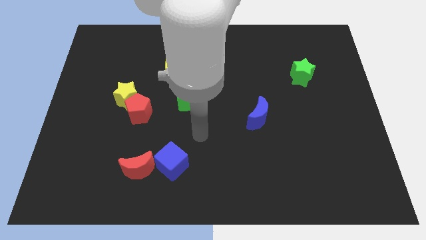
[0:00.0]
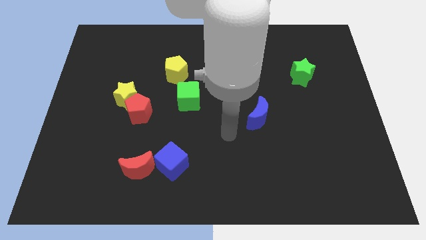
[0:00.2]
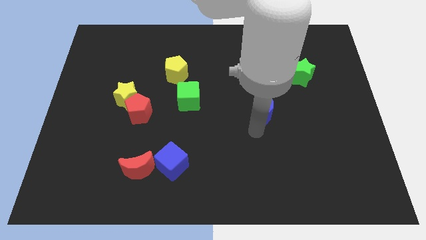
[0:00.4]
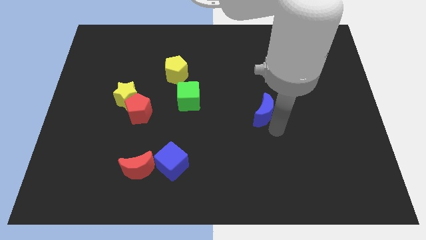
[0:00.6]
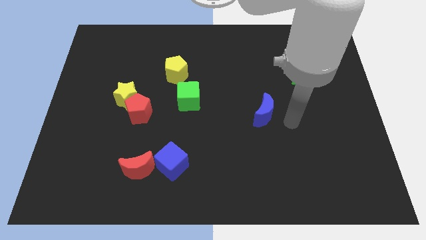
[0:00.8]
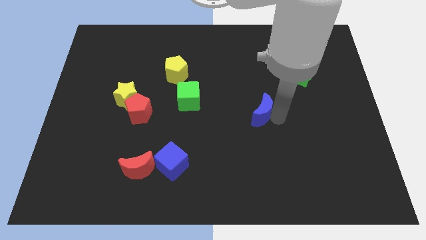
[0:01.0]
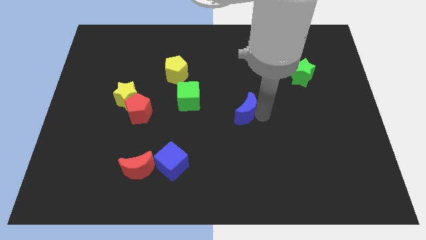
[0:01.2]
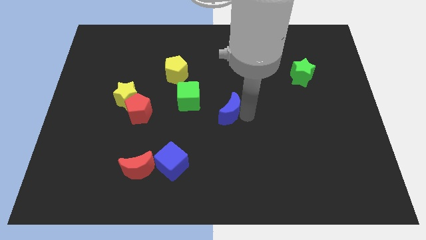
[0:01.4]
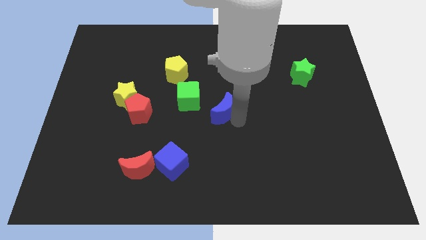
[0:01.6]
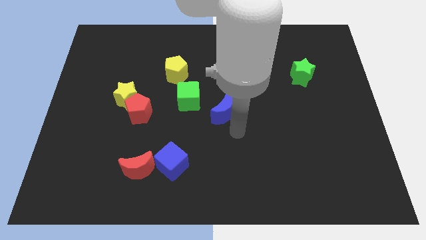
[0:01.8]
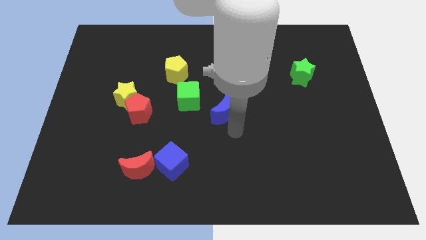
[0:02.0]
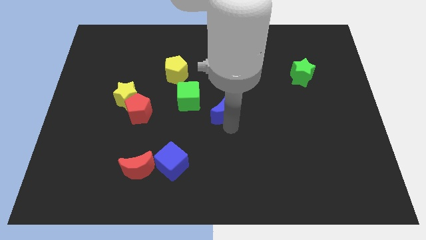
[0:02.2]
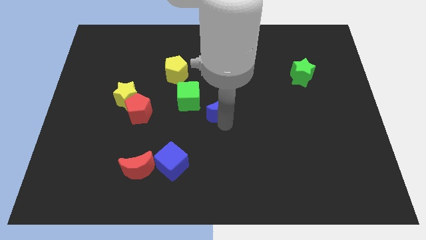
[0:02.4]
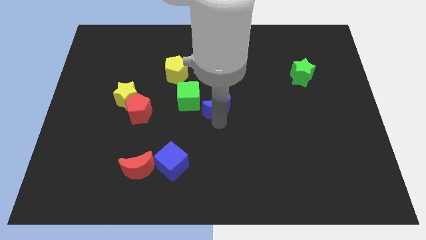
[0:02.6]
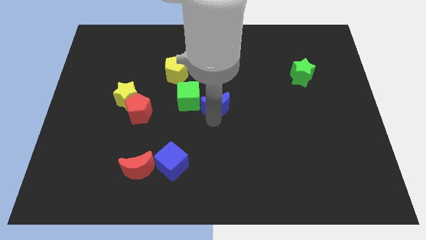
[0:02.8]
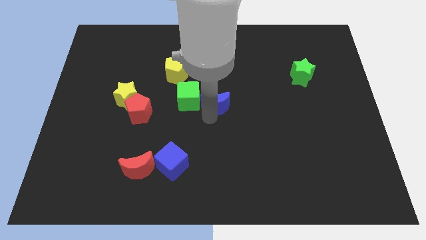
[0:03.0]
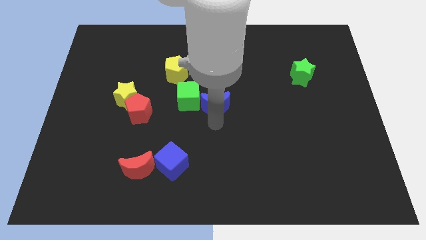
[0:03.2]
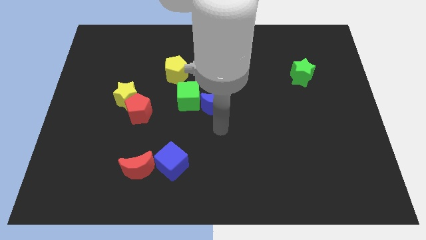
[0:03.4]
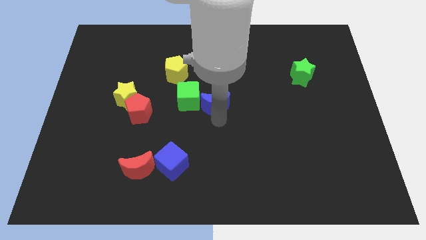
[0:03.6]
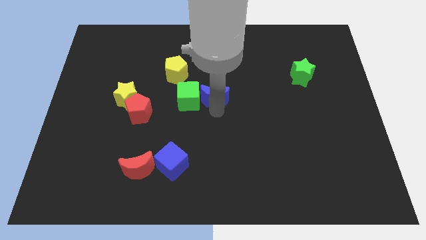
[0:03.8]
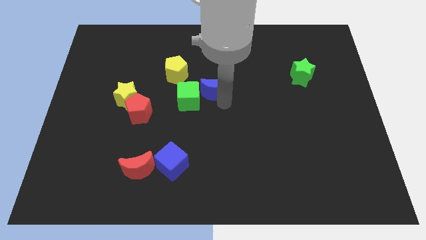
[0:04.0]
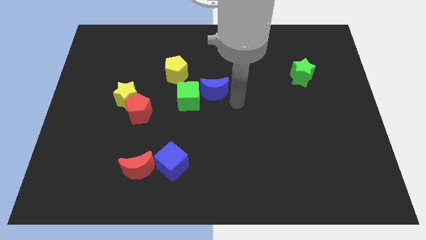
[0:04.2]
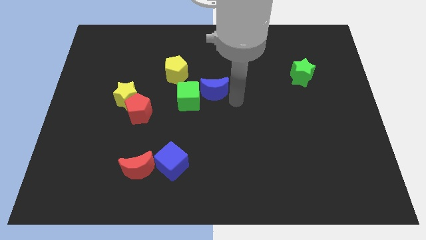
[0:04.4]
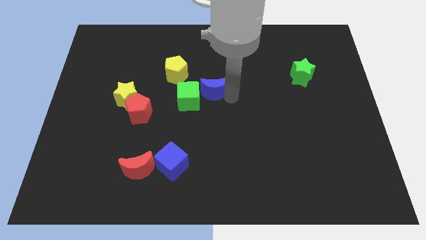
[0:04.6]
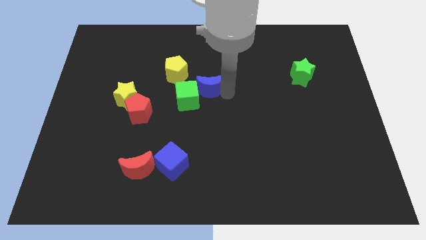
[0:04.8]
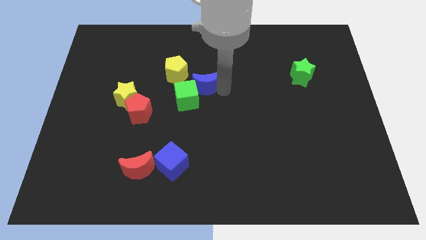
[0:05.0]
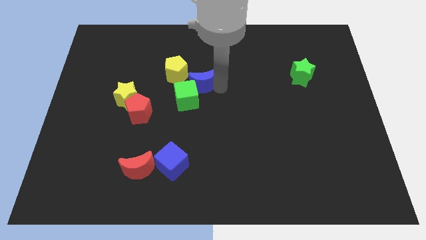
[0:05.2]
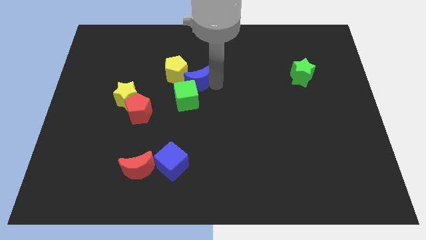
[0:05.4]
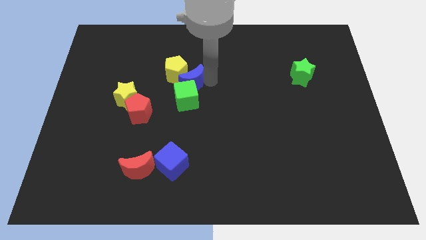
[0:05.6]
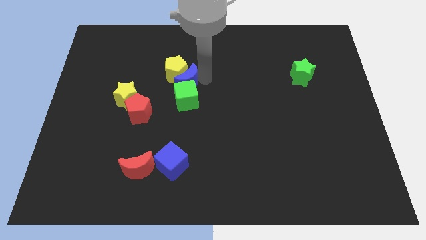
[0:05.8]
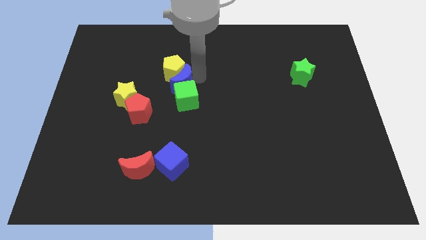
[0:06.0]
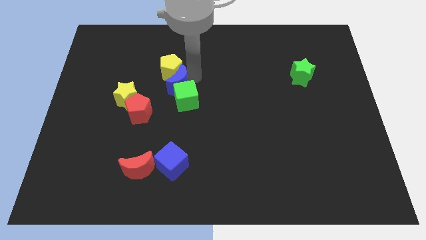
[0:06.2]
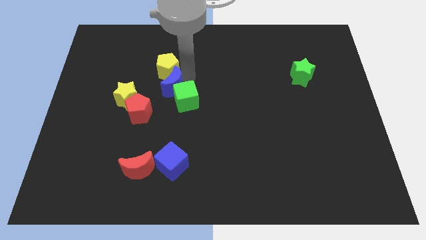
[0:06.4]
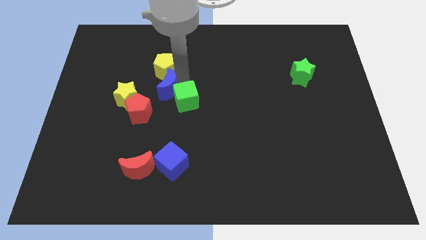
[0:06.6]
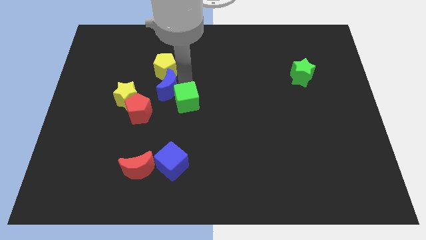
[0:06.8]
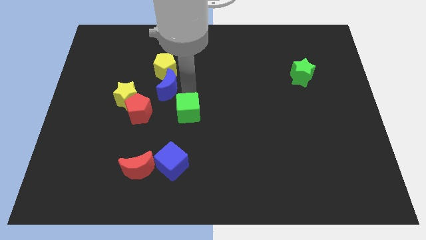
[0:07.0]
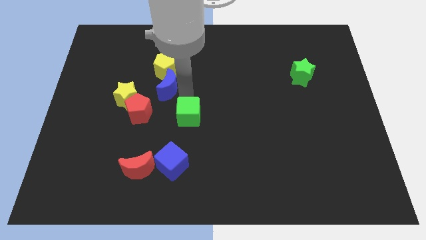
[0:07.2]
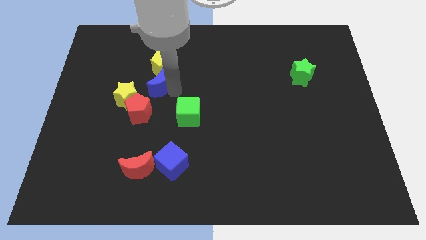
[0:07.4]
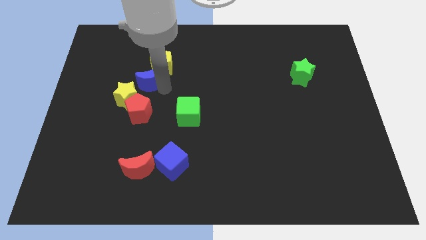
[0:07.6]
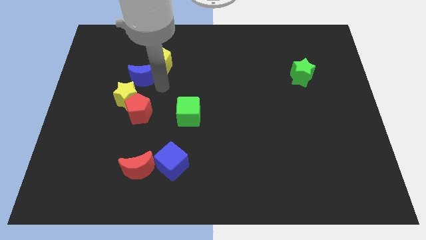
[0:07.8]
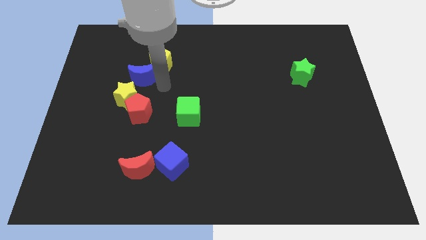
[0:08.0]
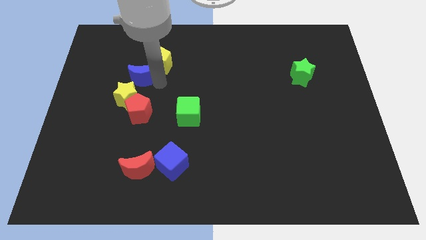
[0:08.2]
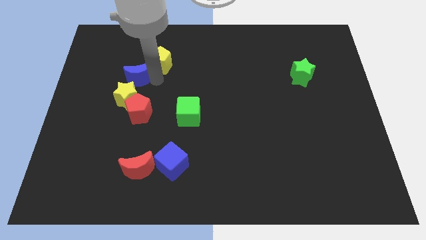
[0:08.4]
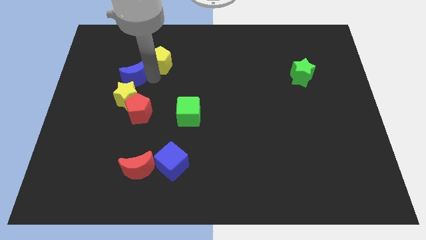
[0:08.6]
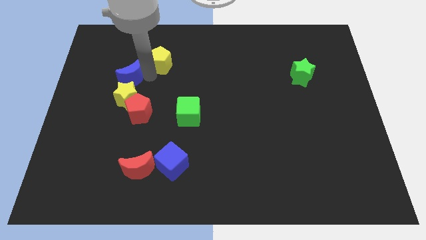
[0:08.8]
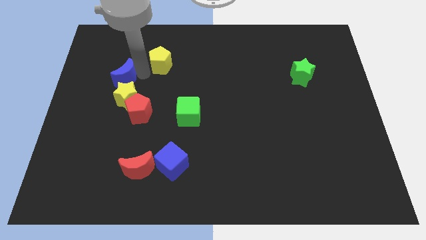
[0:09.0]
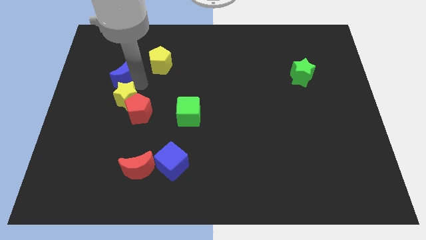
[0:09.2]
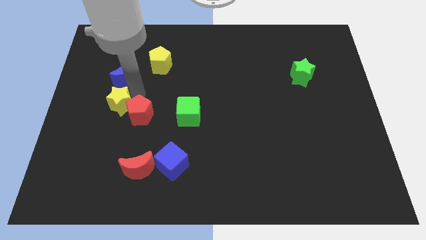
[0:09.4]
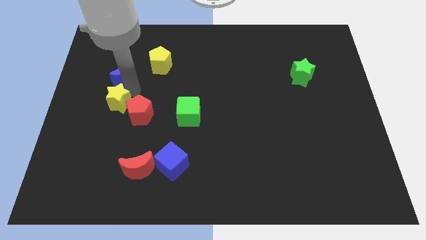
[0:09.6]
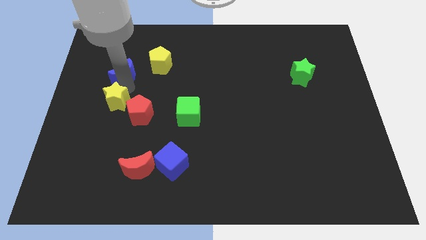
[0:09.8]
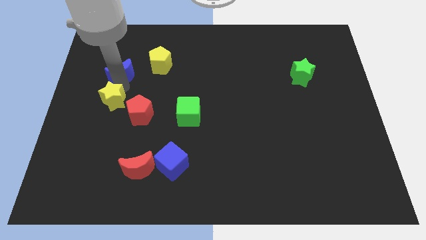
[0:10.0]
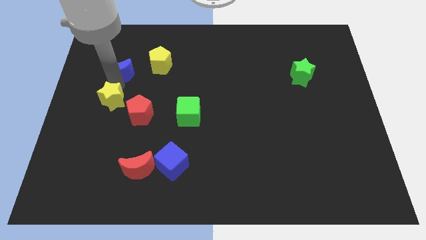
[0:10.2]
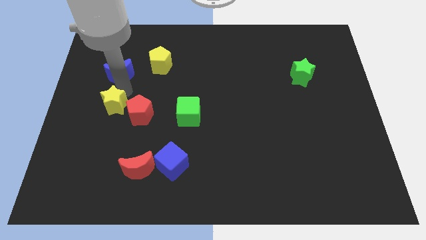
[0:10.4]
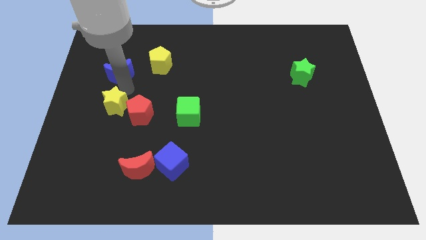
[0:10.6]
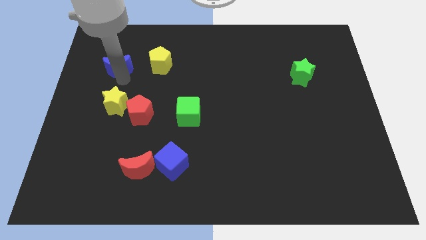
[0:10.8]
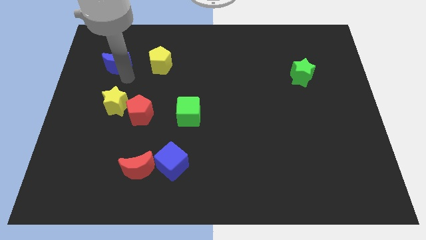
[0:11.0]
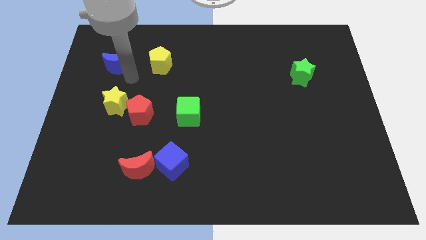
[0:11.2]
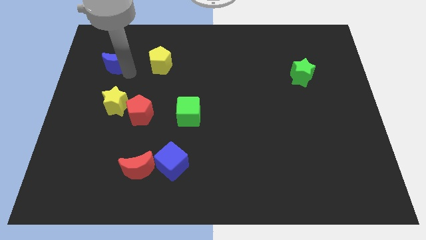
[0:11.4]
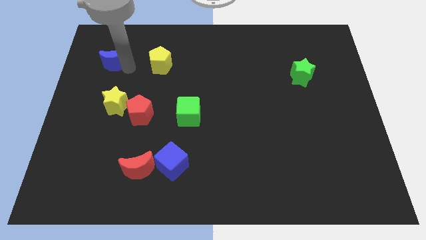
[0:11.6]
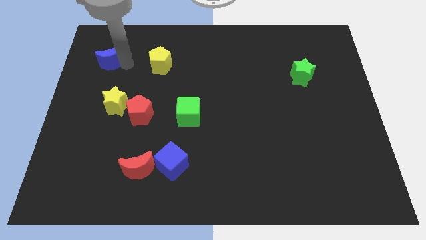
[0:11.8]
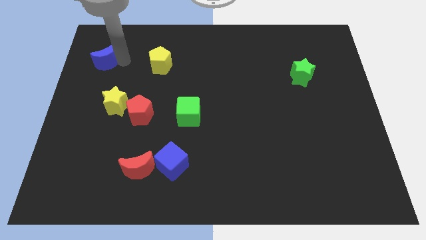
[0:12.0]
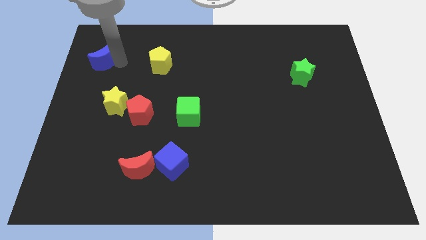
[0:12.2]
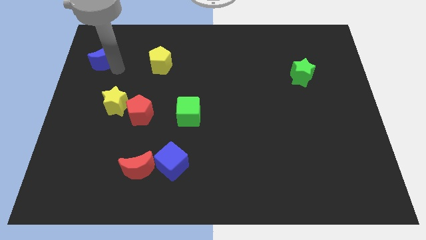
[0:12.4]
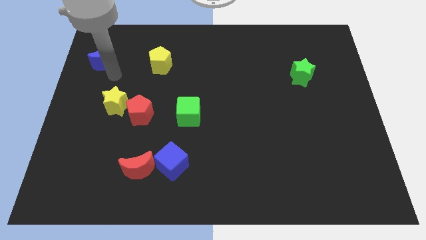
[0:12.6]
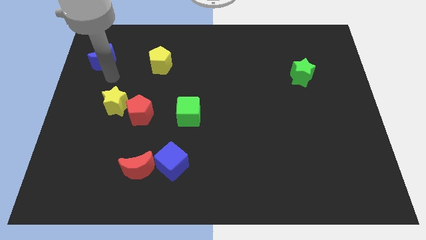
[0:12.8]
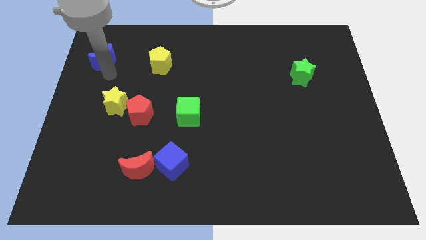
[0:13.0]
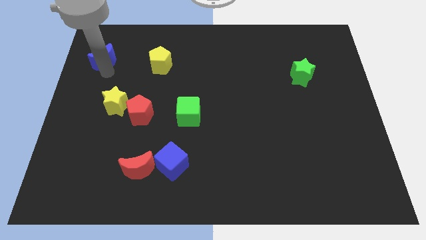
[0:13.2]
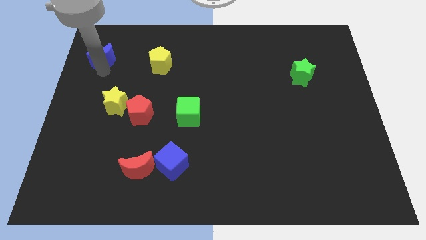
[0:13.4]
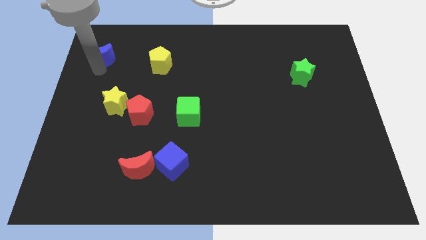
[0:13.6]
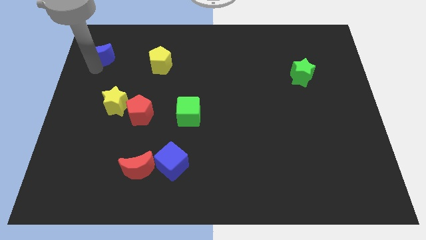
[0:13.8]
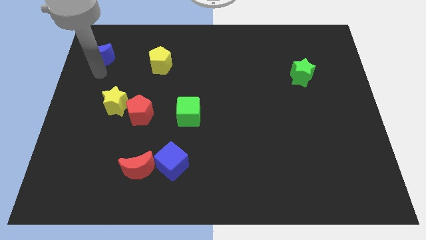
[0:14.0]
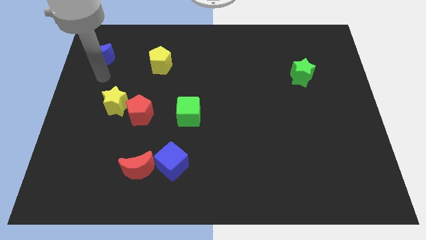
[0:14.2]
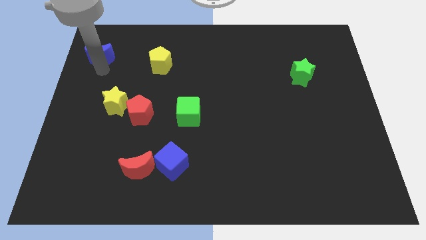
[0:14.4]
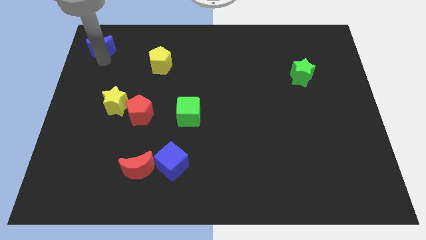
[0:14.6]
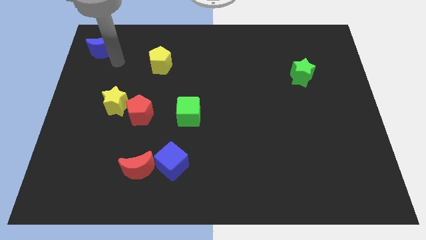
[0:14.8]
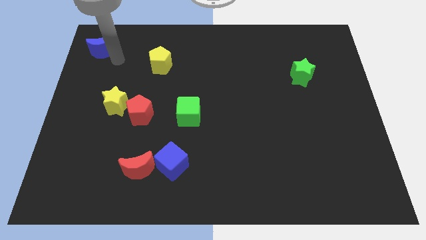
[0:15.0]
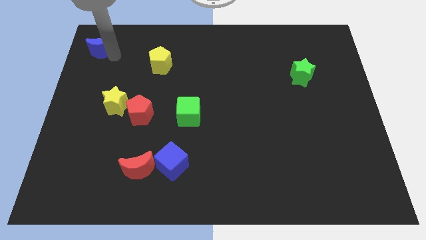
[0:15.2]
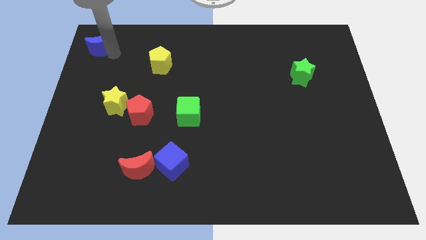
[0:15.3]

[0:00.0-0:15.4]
move the blue moon to the upper left corner
